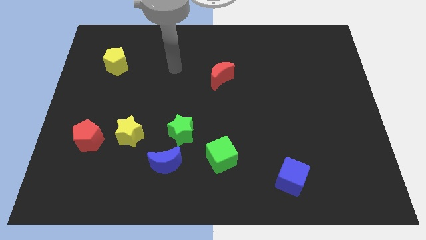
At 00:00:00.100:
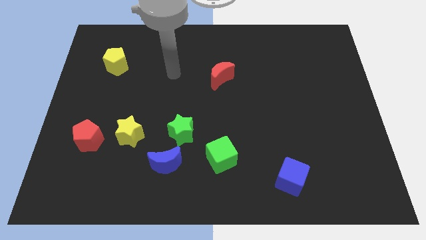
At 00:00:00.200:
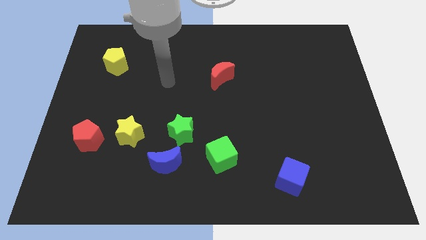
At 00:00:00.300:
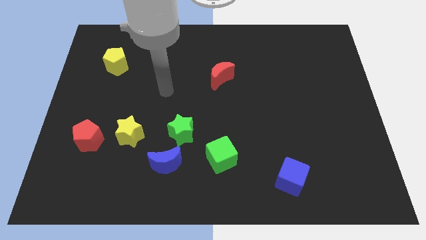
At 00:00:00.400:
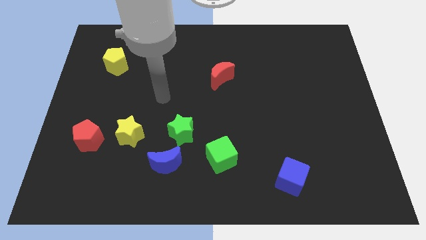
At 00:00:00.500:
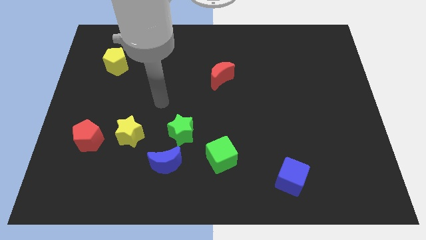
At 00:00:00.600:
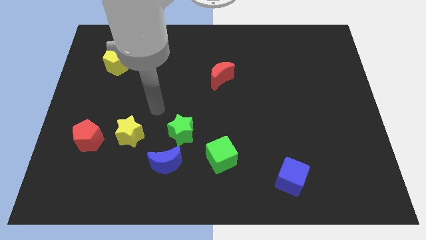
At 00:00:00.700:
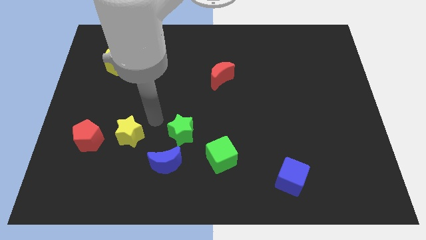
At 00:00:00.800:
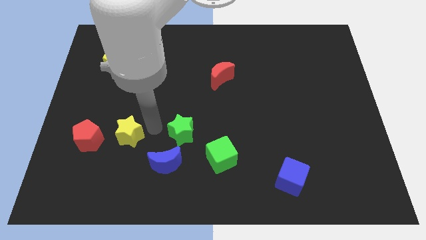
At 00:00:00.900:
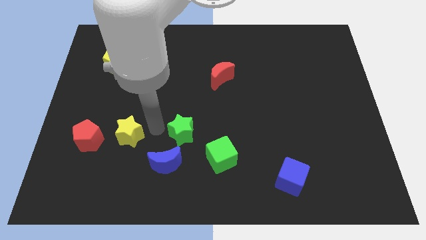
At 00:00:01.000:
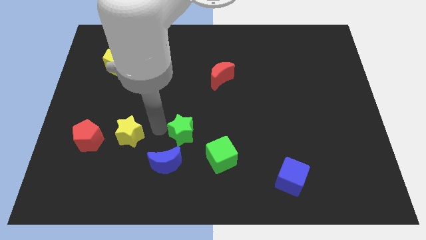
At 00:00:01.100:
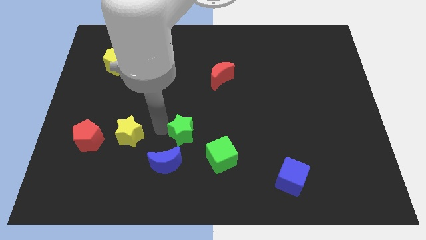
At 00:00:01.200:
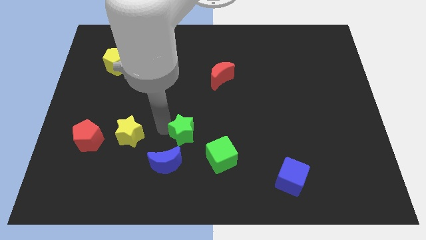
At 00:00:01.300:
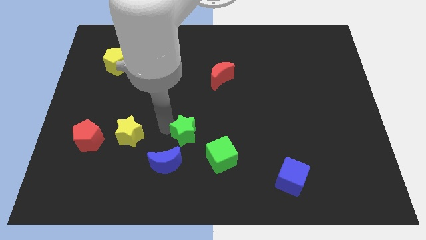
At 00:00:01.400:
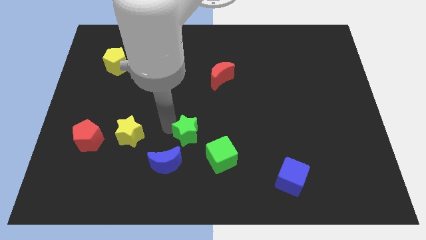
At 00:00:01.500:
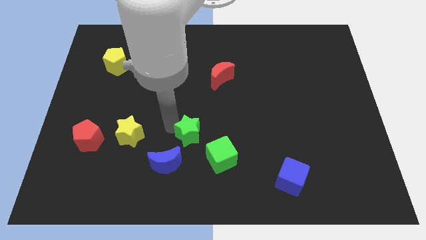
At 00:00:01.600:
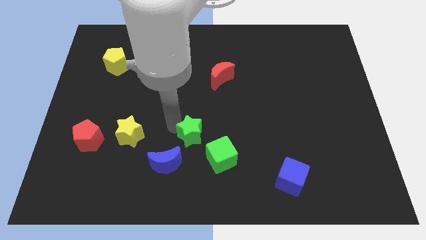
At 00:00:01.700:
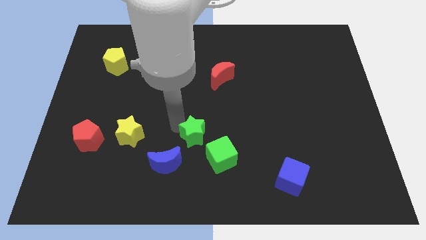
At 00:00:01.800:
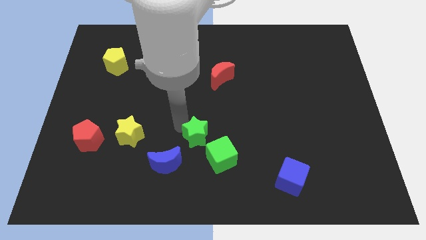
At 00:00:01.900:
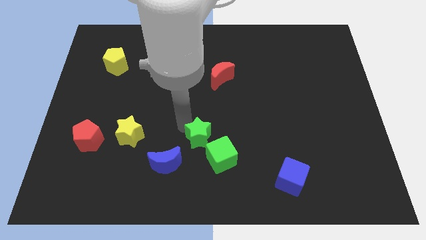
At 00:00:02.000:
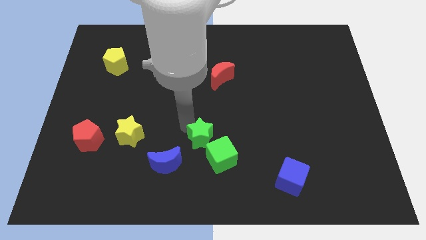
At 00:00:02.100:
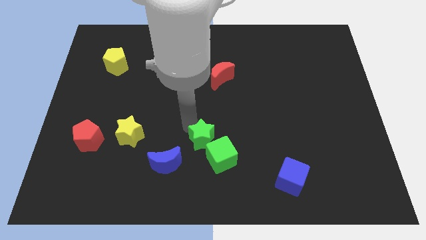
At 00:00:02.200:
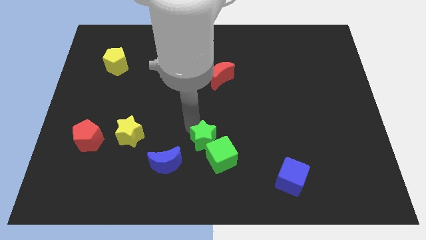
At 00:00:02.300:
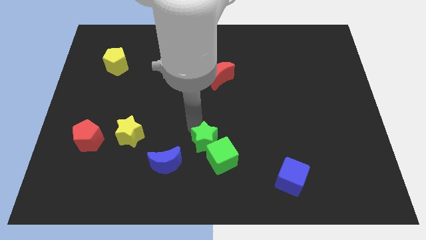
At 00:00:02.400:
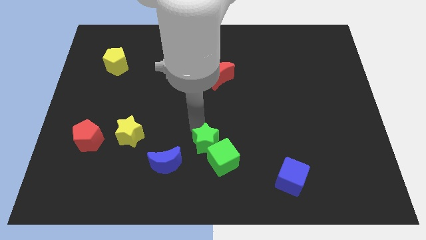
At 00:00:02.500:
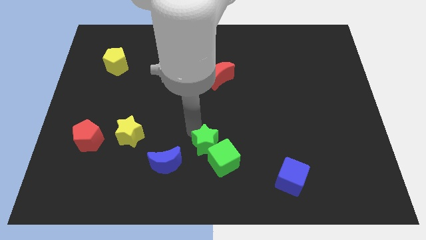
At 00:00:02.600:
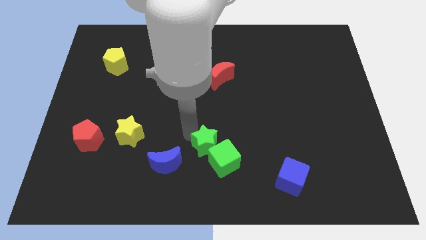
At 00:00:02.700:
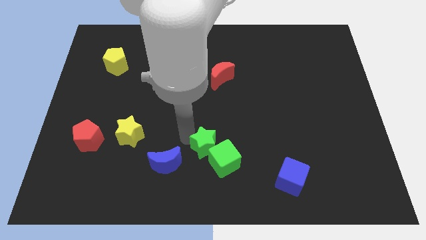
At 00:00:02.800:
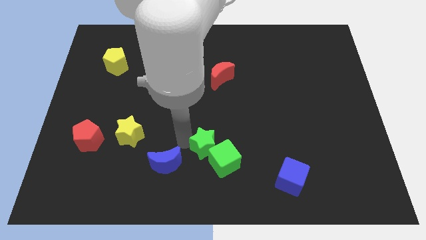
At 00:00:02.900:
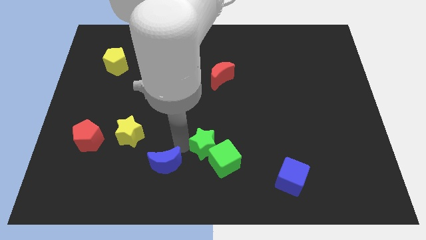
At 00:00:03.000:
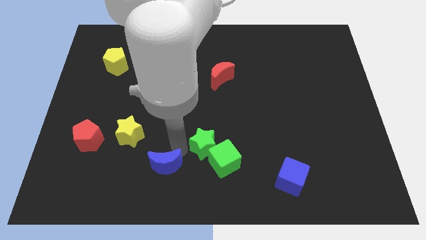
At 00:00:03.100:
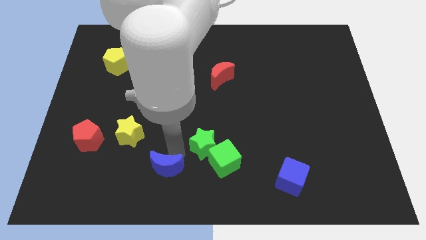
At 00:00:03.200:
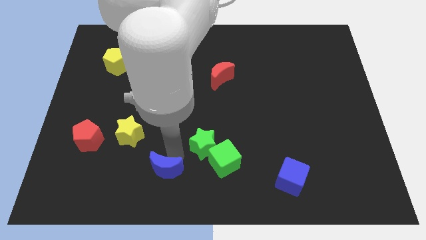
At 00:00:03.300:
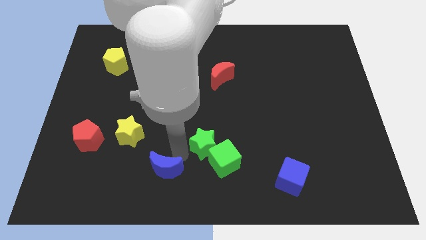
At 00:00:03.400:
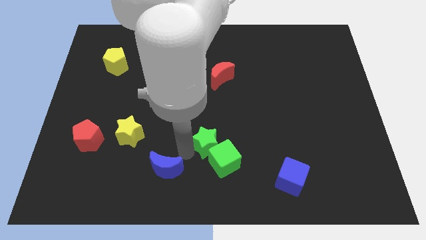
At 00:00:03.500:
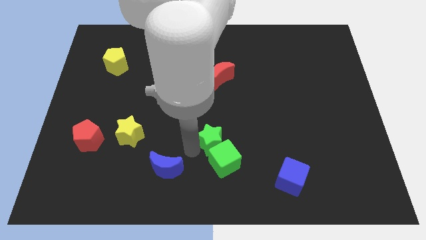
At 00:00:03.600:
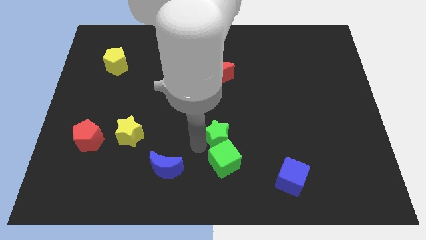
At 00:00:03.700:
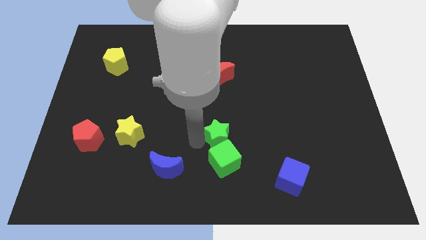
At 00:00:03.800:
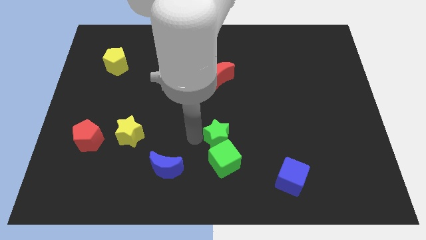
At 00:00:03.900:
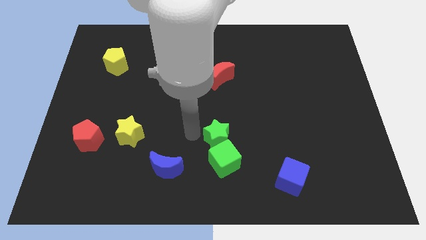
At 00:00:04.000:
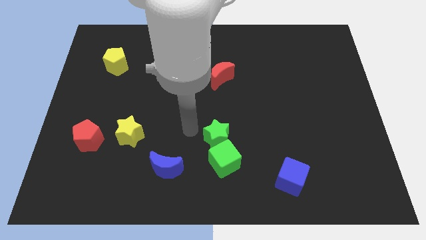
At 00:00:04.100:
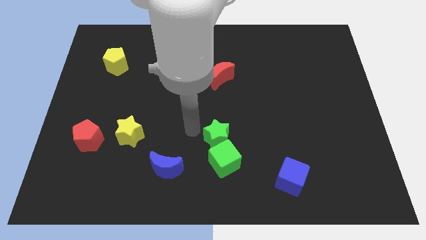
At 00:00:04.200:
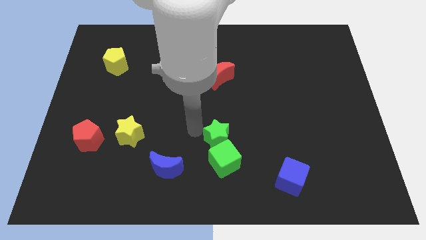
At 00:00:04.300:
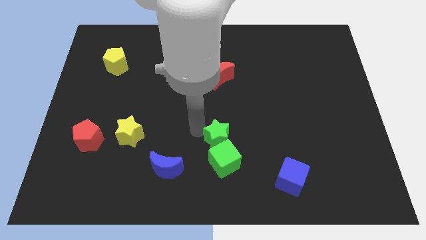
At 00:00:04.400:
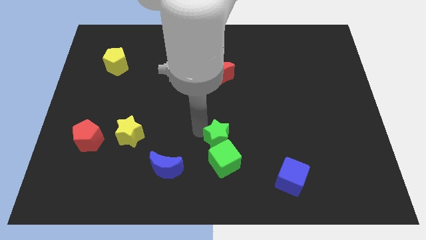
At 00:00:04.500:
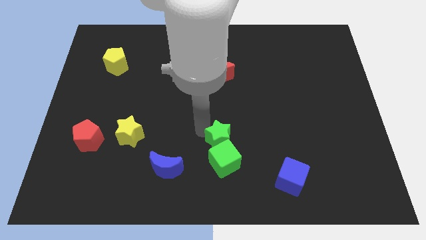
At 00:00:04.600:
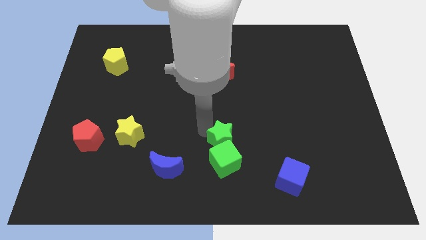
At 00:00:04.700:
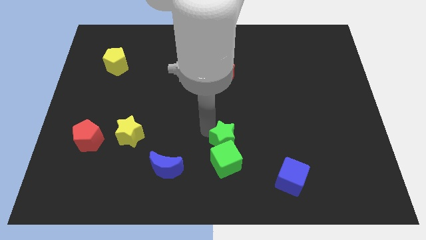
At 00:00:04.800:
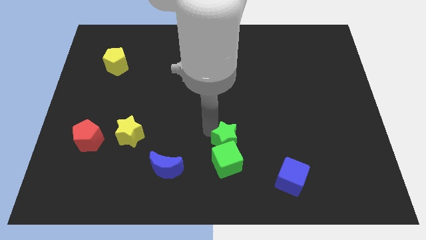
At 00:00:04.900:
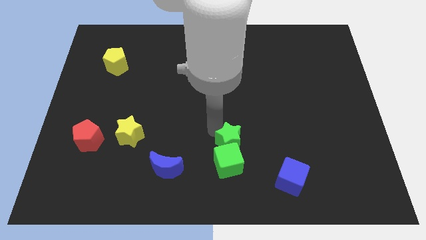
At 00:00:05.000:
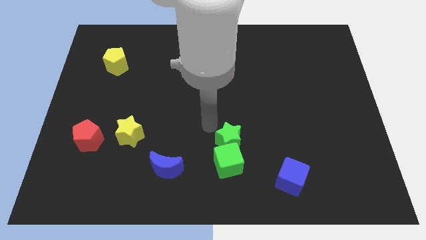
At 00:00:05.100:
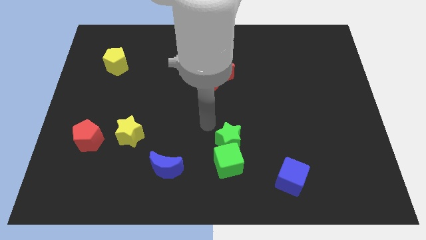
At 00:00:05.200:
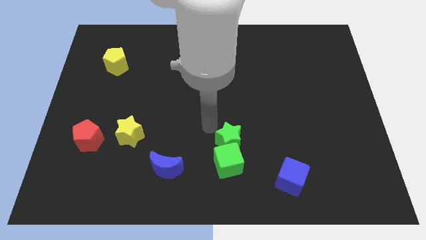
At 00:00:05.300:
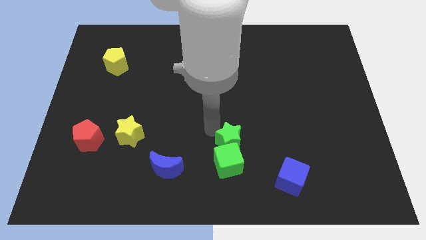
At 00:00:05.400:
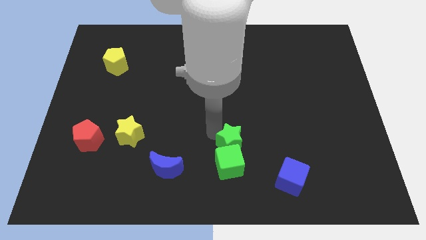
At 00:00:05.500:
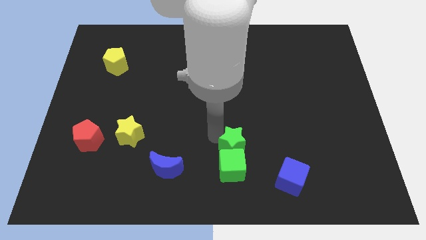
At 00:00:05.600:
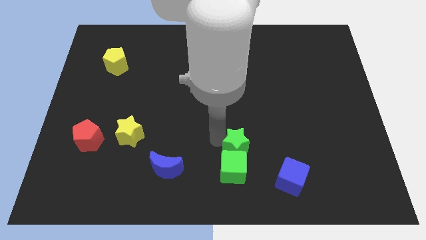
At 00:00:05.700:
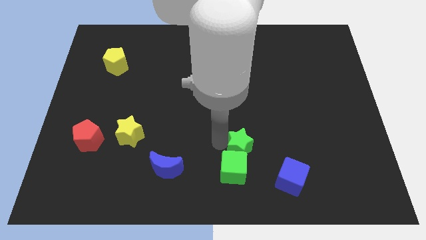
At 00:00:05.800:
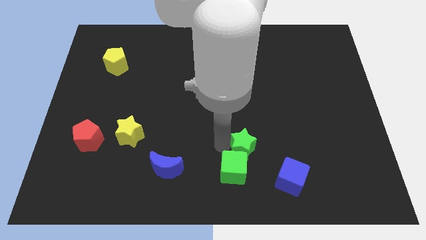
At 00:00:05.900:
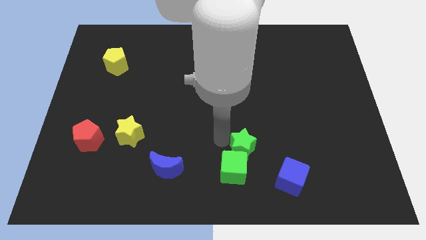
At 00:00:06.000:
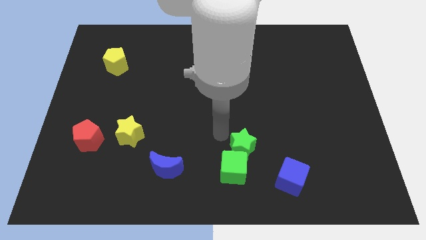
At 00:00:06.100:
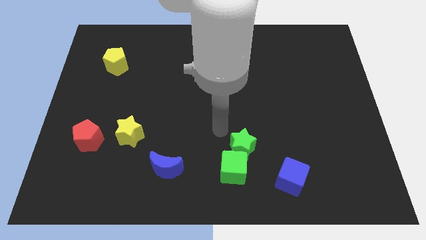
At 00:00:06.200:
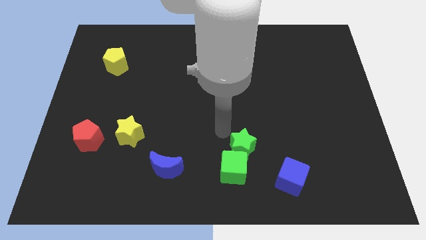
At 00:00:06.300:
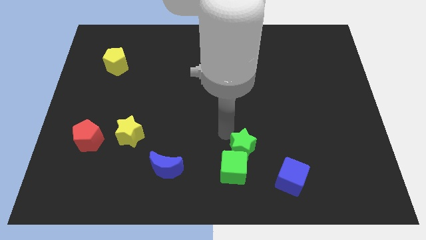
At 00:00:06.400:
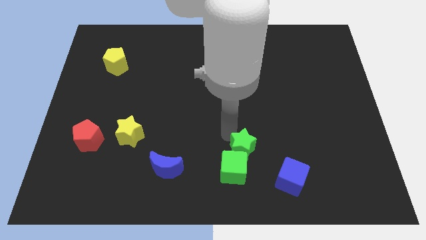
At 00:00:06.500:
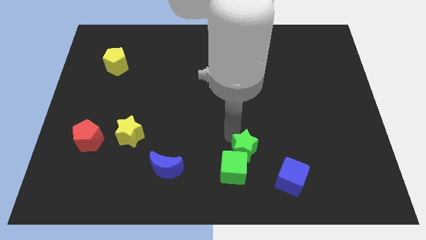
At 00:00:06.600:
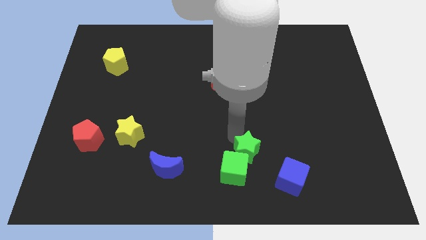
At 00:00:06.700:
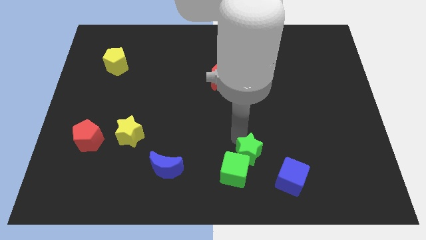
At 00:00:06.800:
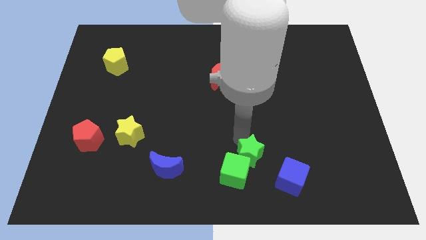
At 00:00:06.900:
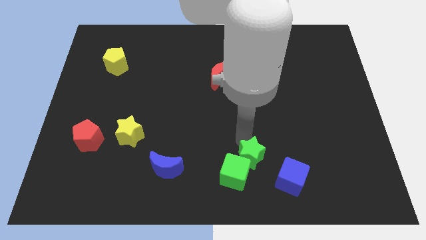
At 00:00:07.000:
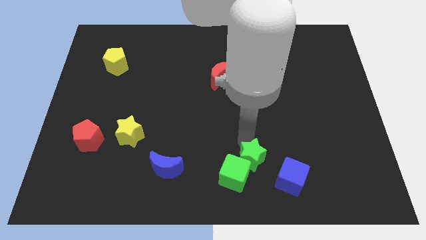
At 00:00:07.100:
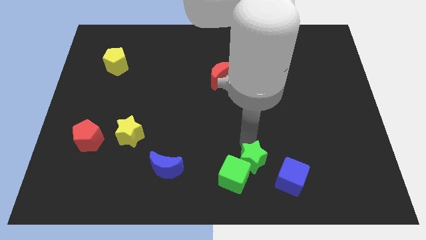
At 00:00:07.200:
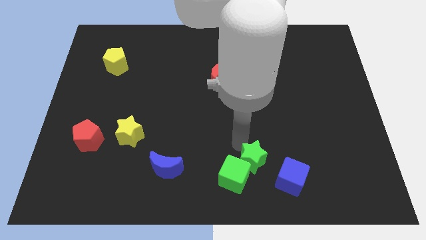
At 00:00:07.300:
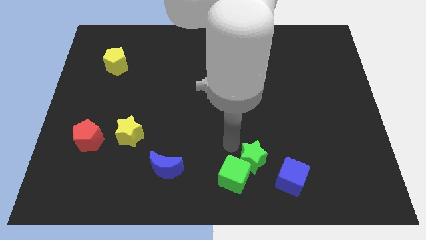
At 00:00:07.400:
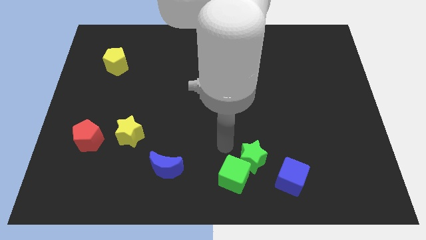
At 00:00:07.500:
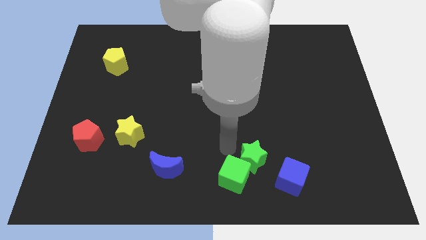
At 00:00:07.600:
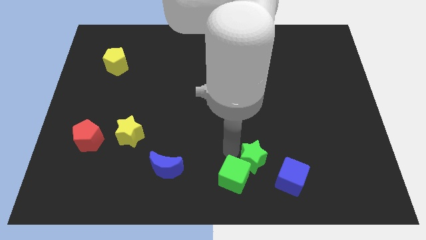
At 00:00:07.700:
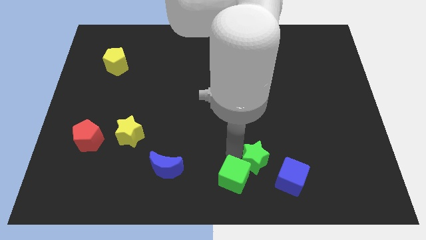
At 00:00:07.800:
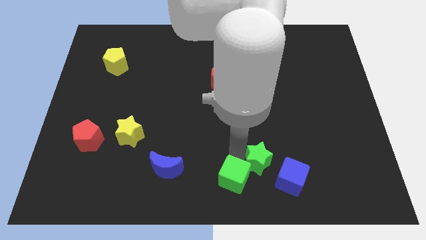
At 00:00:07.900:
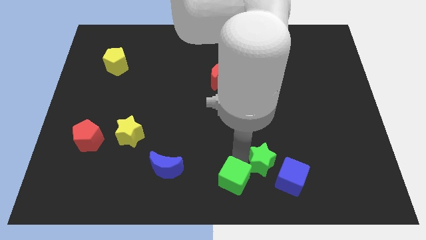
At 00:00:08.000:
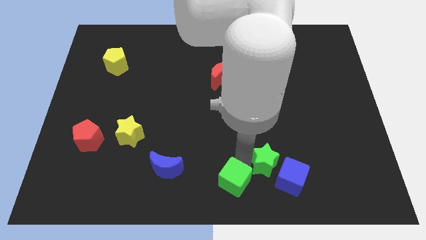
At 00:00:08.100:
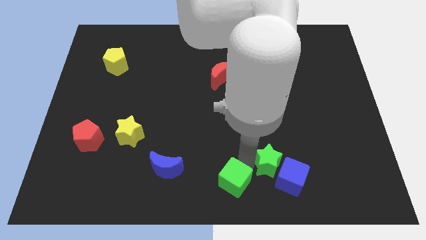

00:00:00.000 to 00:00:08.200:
put the green star close to the blue cube
